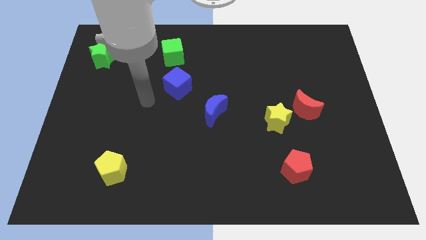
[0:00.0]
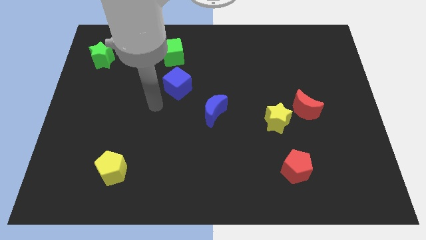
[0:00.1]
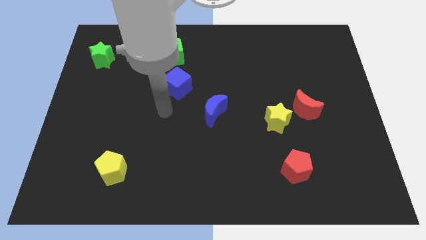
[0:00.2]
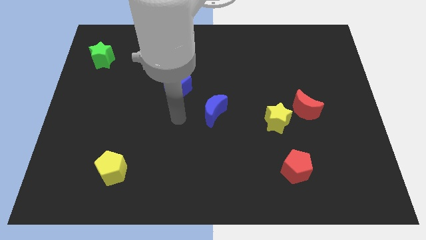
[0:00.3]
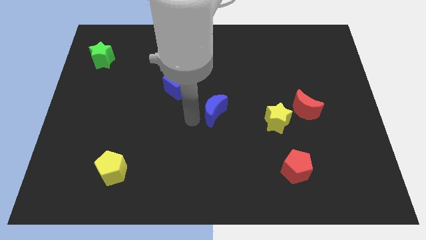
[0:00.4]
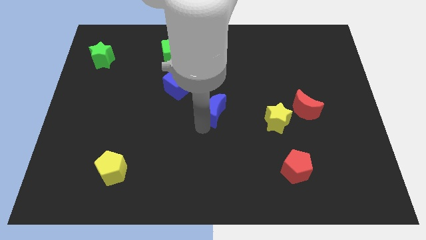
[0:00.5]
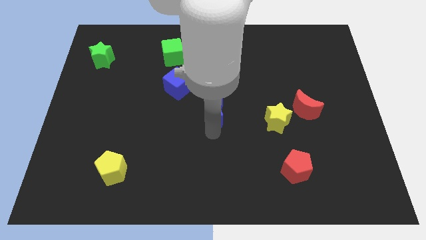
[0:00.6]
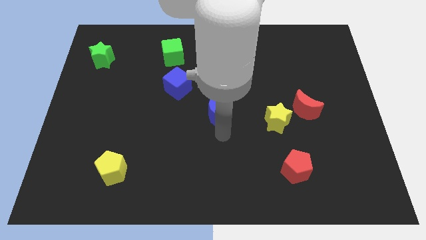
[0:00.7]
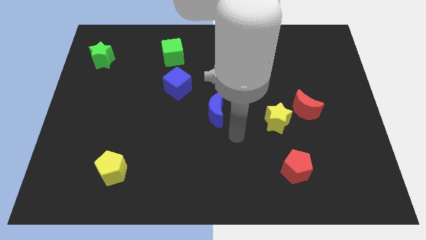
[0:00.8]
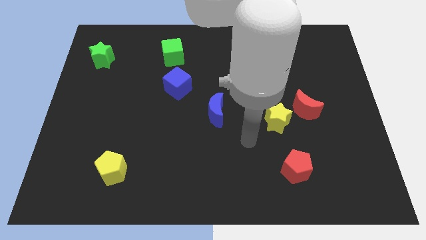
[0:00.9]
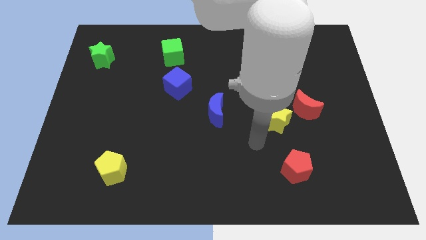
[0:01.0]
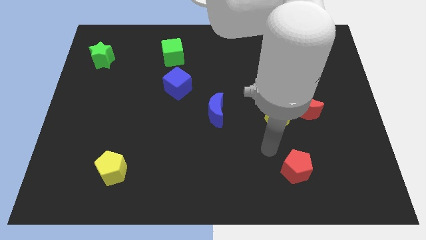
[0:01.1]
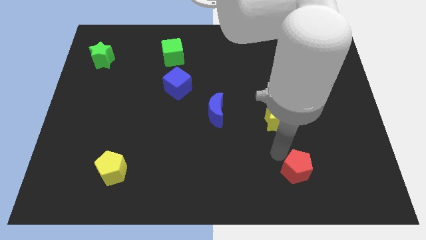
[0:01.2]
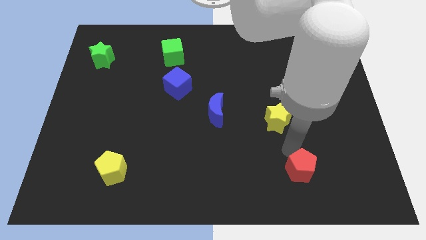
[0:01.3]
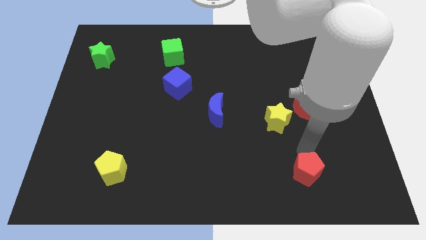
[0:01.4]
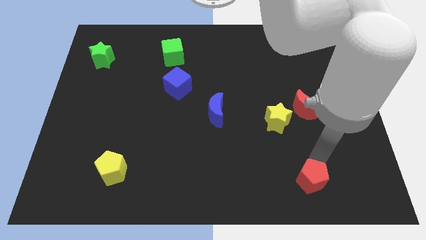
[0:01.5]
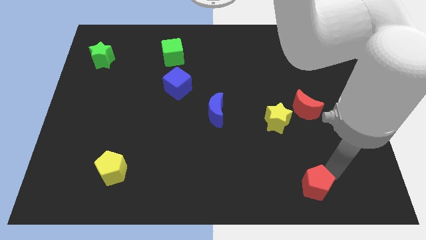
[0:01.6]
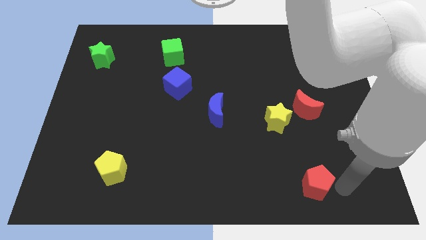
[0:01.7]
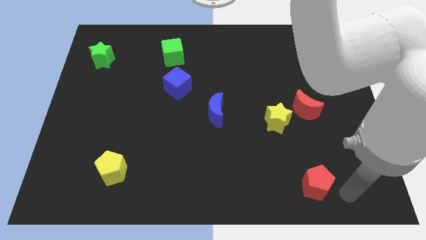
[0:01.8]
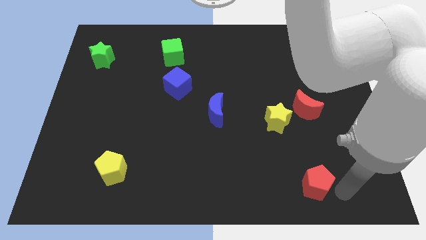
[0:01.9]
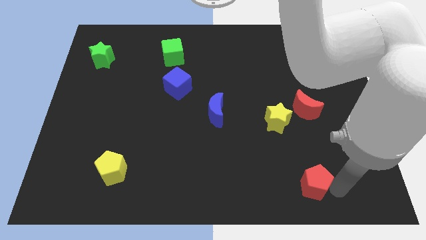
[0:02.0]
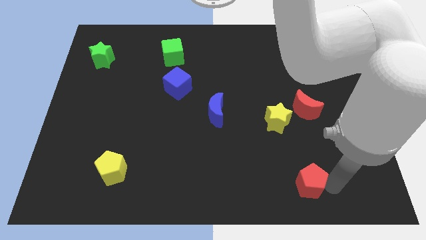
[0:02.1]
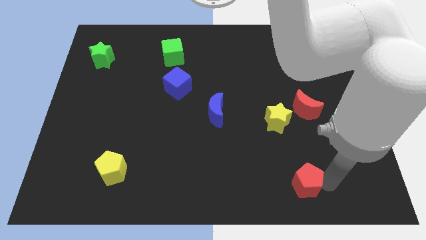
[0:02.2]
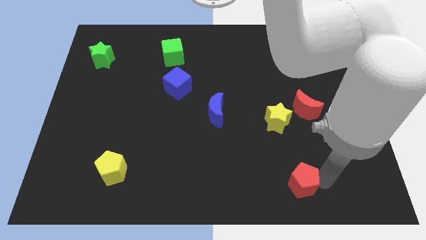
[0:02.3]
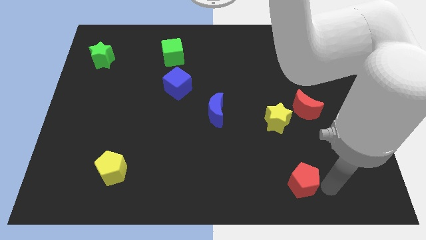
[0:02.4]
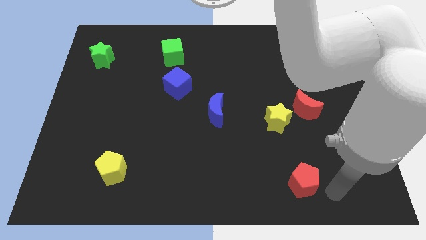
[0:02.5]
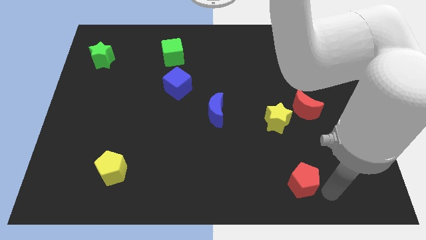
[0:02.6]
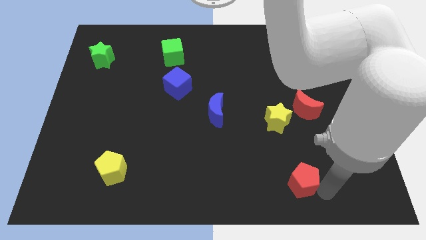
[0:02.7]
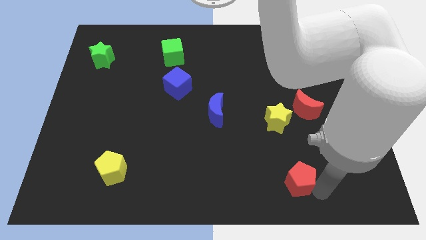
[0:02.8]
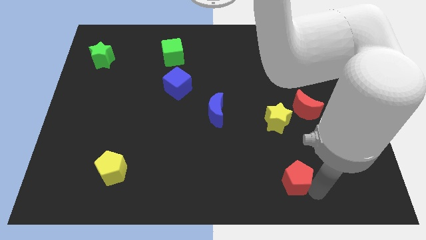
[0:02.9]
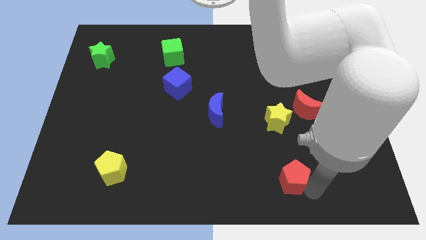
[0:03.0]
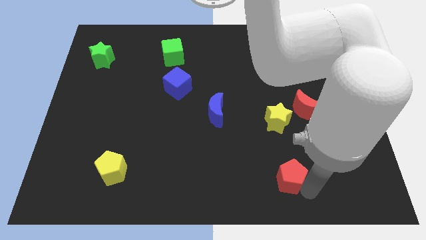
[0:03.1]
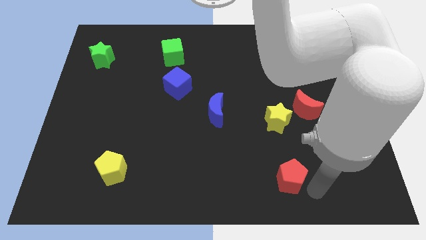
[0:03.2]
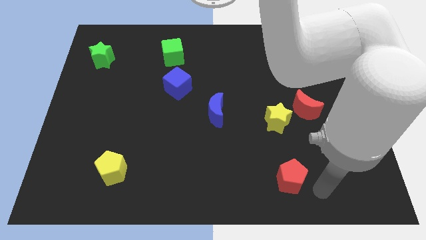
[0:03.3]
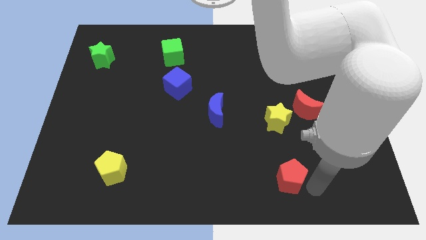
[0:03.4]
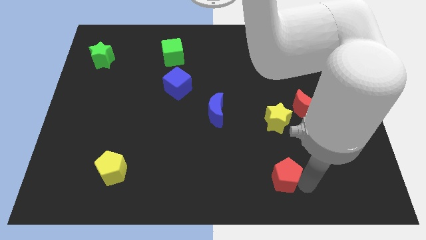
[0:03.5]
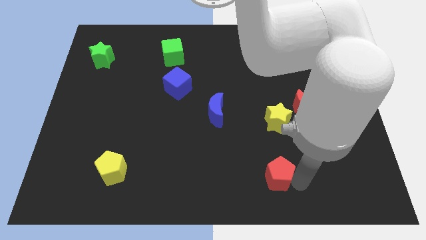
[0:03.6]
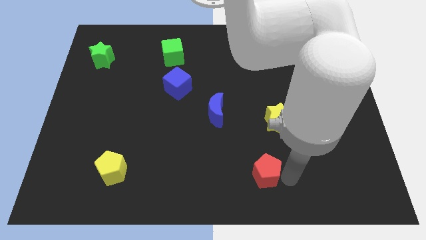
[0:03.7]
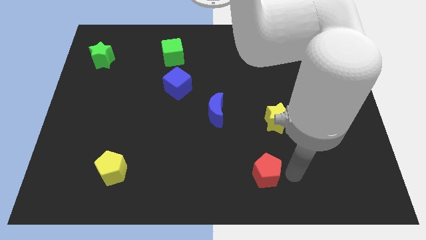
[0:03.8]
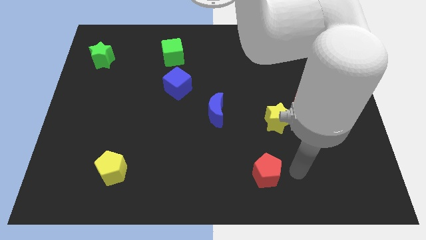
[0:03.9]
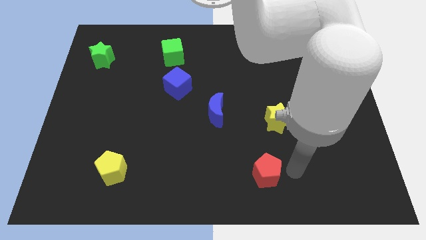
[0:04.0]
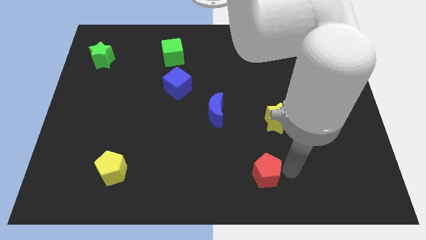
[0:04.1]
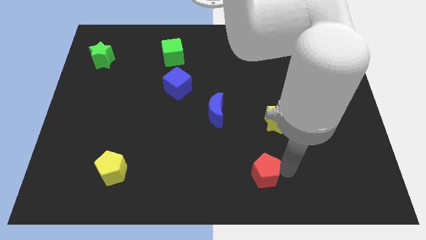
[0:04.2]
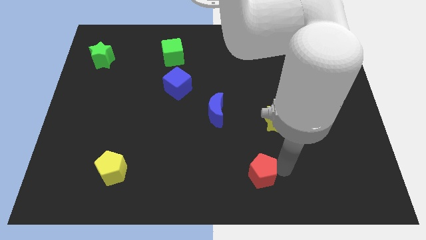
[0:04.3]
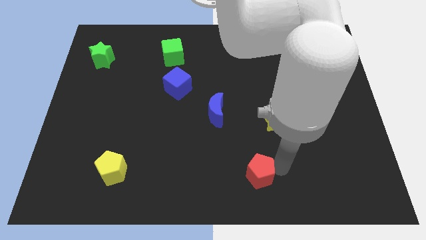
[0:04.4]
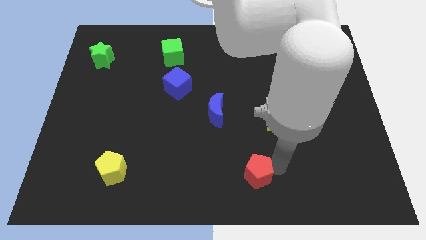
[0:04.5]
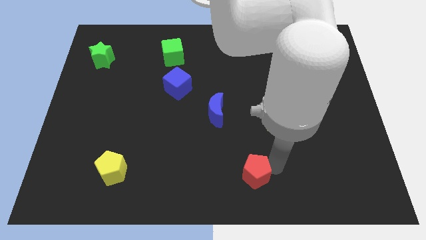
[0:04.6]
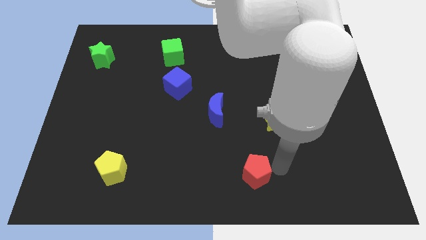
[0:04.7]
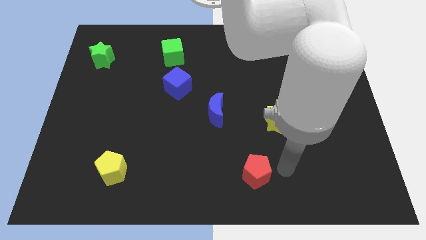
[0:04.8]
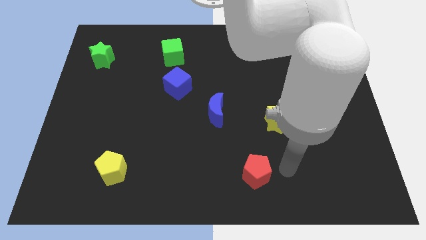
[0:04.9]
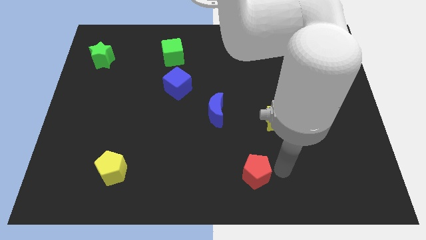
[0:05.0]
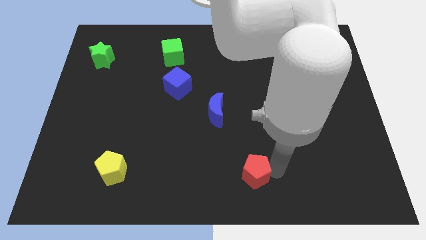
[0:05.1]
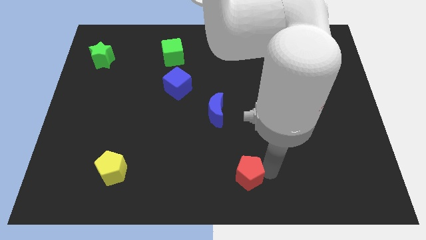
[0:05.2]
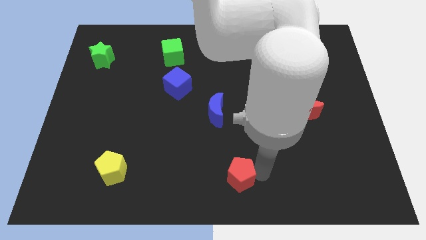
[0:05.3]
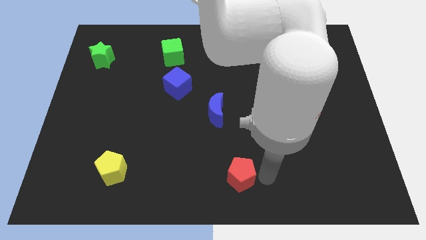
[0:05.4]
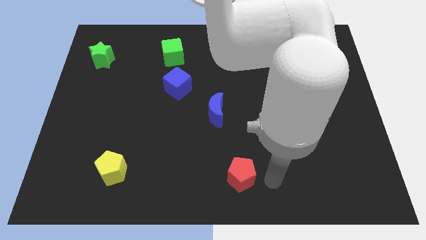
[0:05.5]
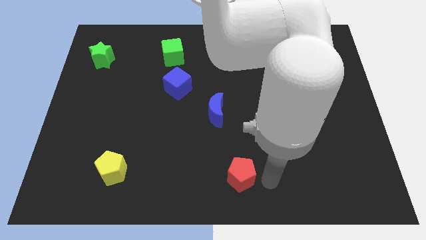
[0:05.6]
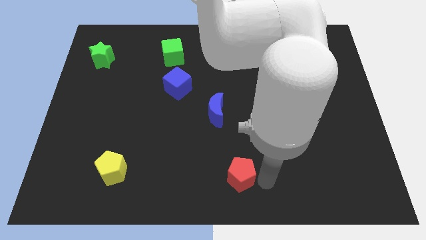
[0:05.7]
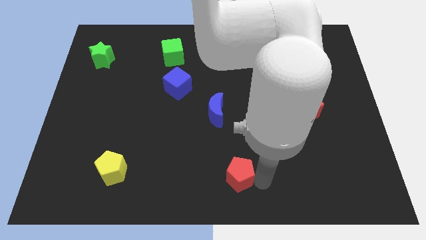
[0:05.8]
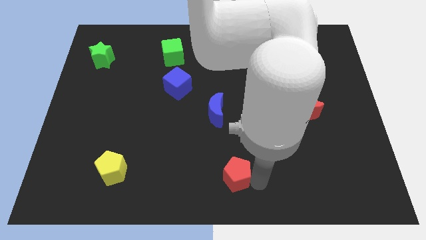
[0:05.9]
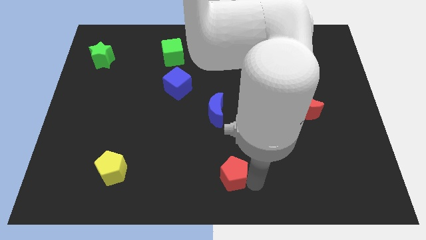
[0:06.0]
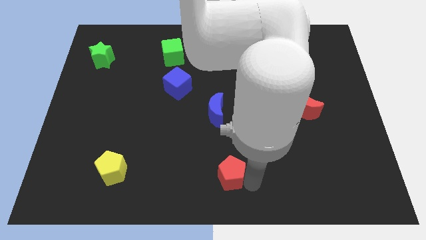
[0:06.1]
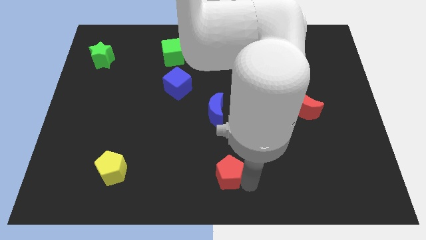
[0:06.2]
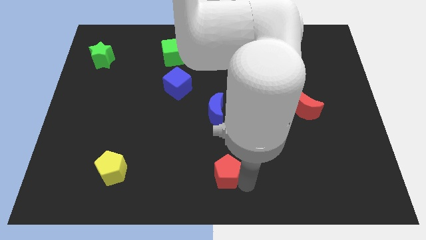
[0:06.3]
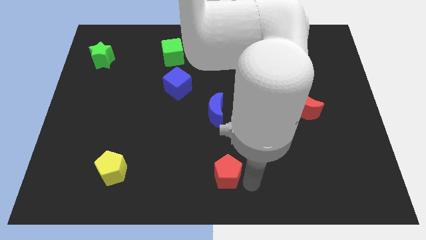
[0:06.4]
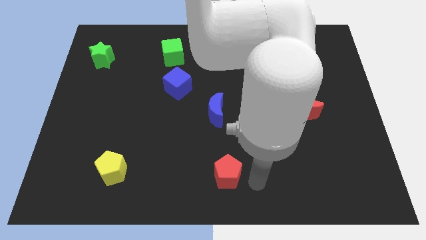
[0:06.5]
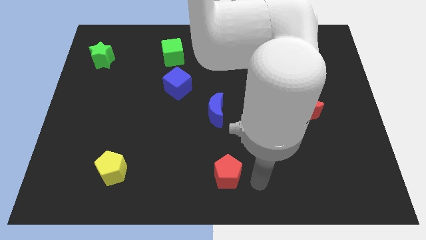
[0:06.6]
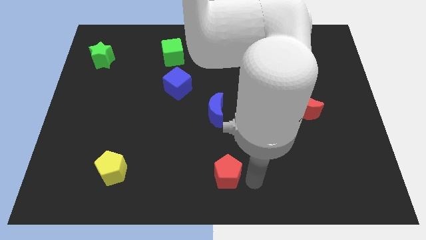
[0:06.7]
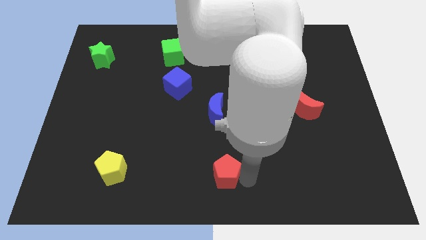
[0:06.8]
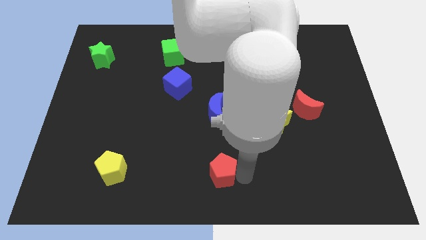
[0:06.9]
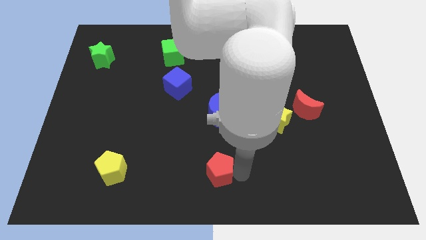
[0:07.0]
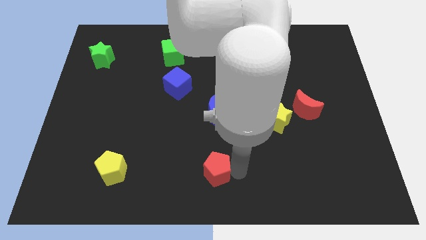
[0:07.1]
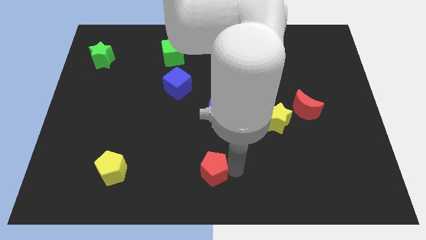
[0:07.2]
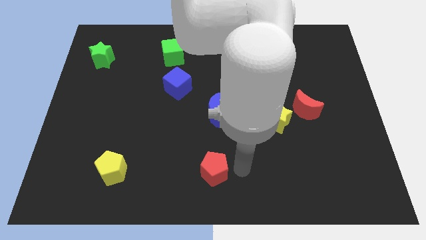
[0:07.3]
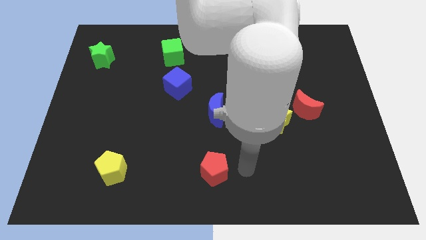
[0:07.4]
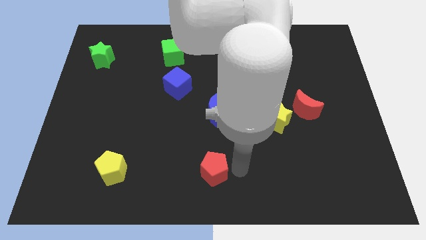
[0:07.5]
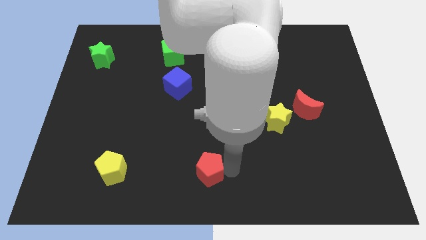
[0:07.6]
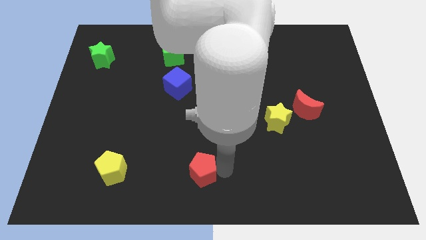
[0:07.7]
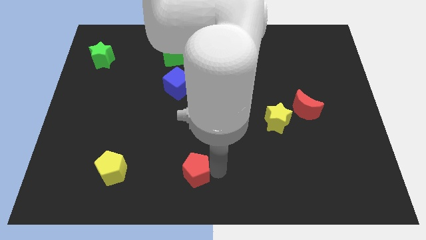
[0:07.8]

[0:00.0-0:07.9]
move the red pentagon left

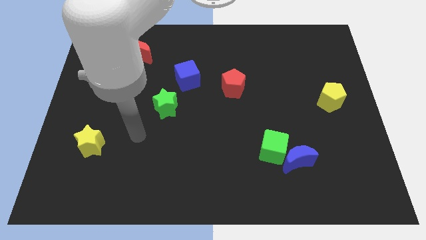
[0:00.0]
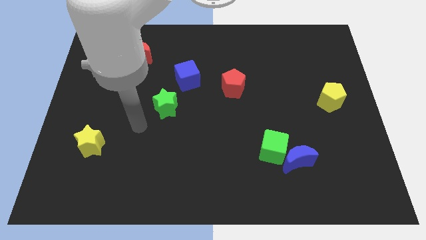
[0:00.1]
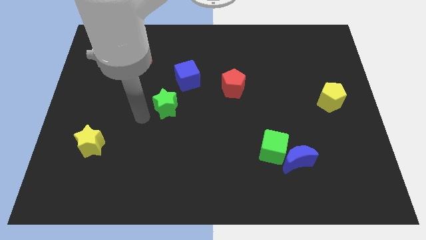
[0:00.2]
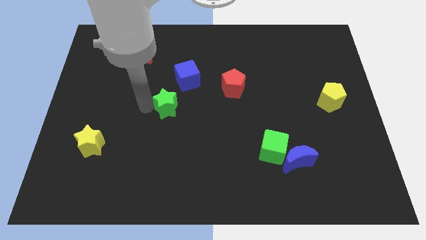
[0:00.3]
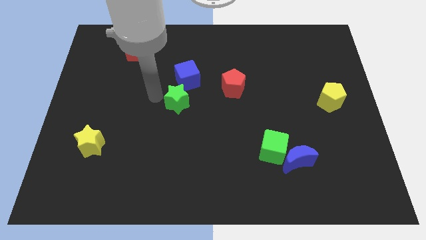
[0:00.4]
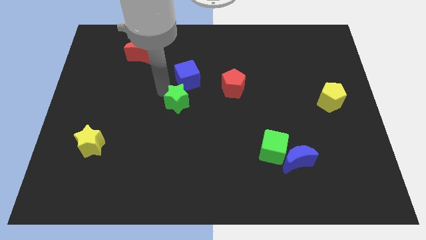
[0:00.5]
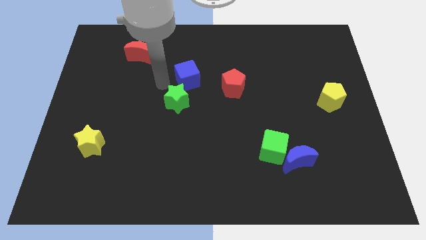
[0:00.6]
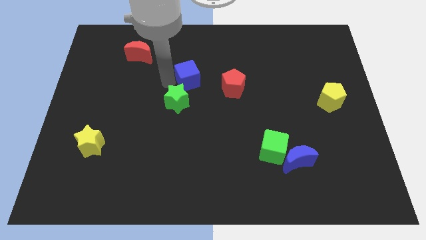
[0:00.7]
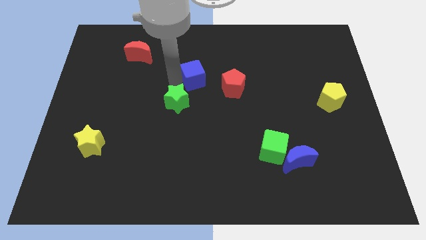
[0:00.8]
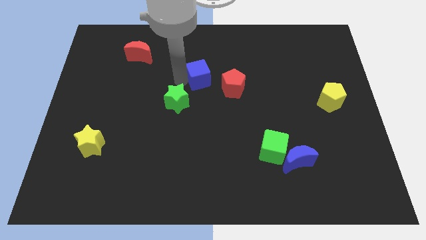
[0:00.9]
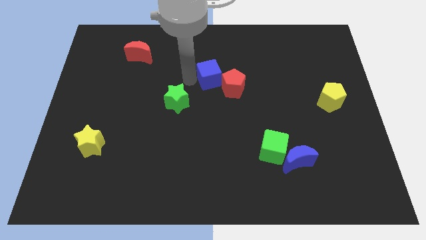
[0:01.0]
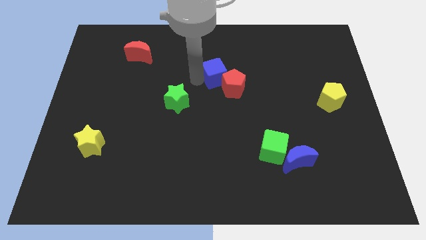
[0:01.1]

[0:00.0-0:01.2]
slightly slide the blue cube right
